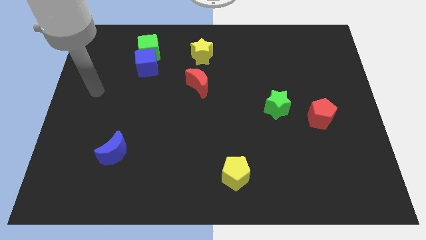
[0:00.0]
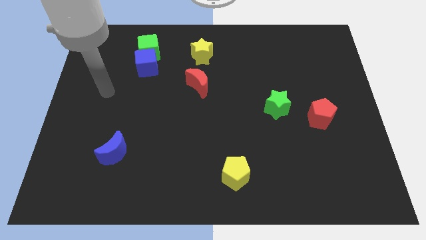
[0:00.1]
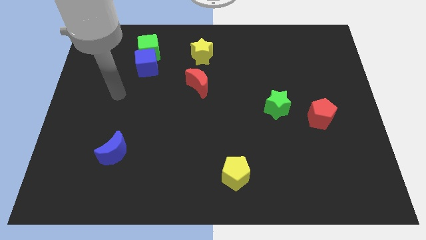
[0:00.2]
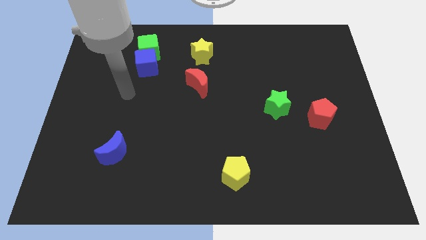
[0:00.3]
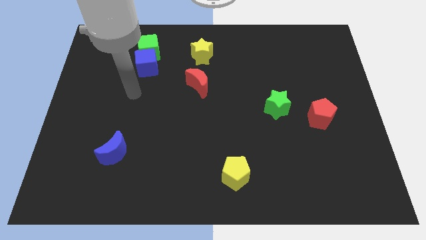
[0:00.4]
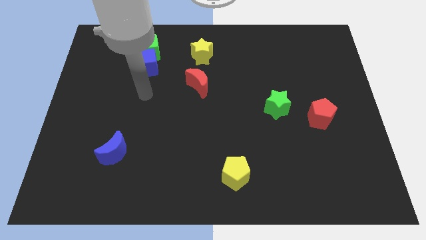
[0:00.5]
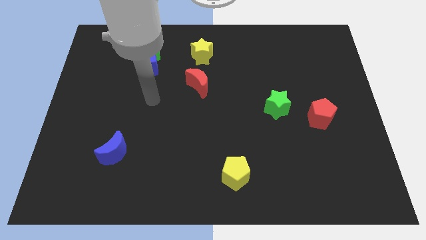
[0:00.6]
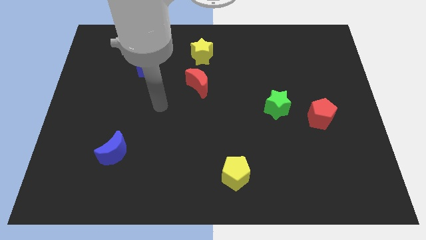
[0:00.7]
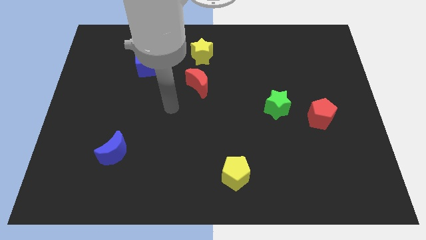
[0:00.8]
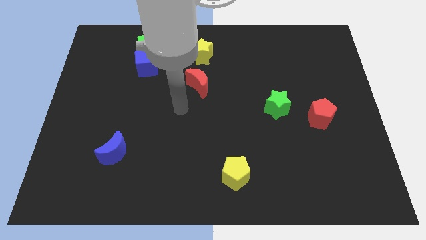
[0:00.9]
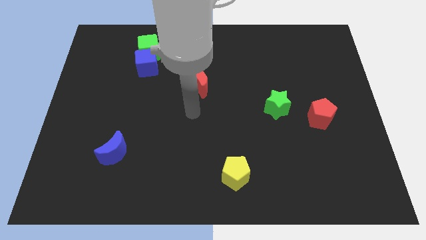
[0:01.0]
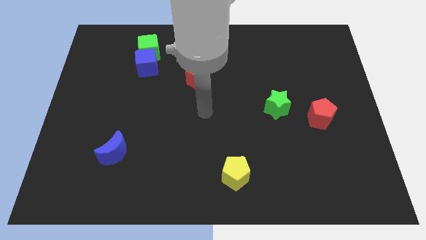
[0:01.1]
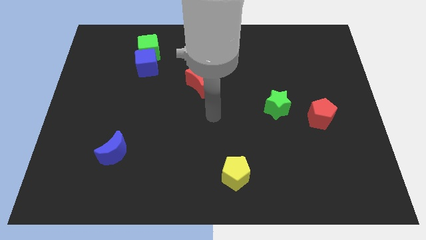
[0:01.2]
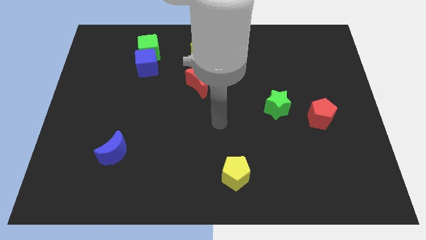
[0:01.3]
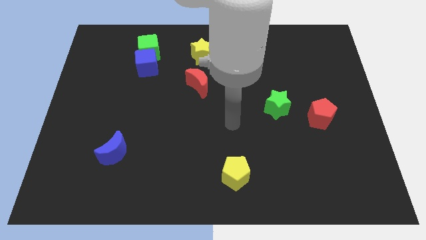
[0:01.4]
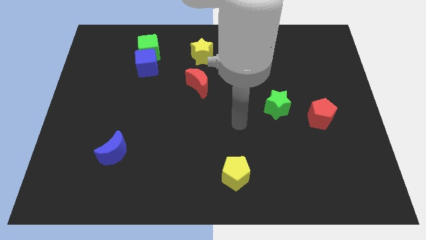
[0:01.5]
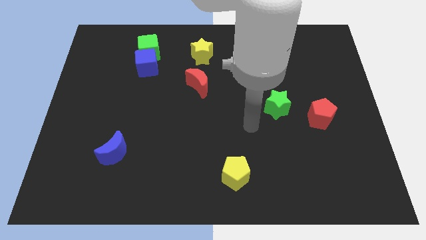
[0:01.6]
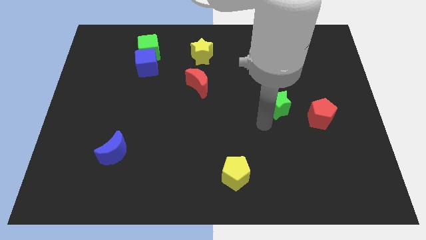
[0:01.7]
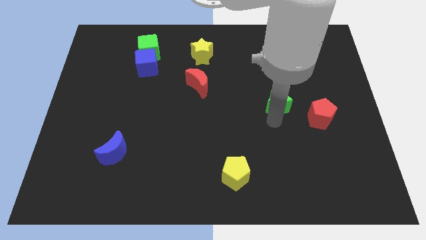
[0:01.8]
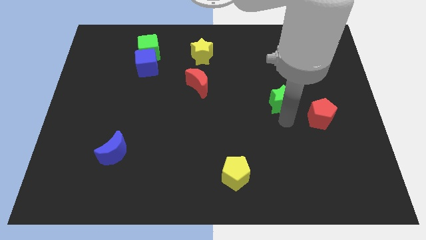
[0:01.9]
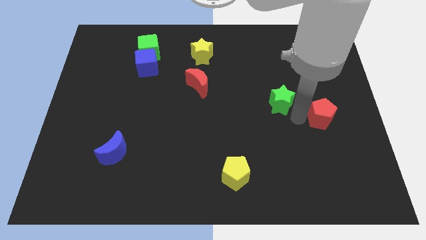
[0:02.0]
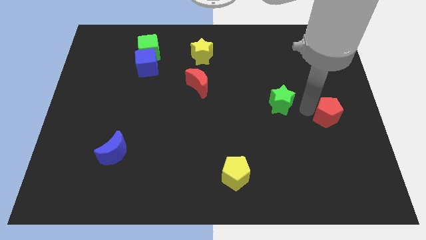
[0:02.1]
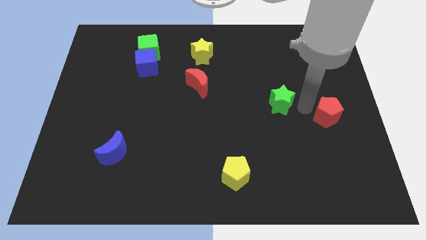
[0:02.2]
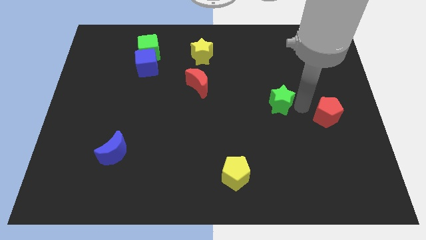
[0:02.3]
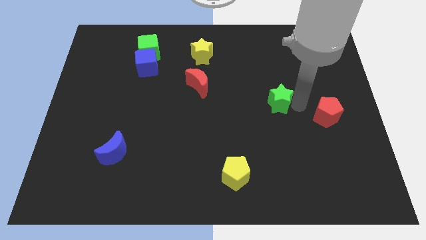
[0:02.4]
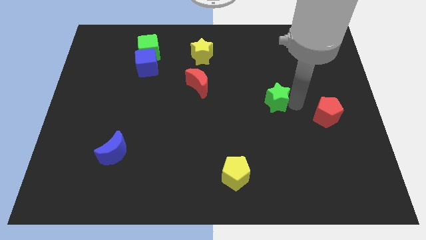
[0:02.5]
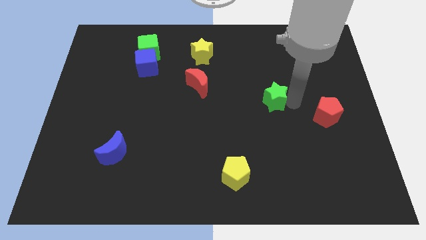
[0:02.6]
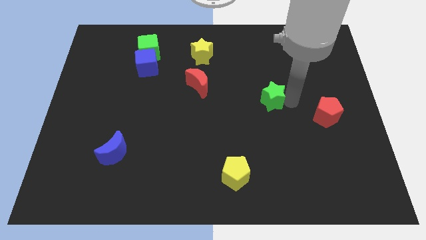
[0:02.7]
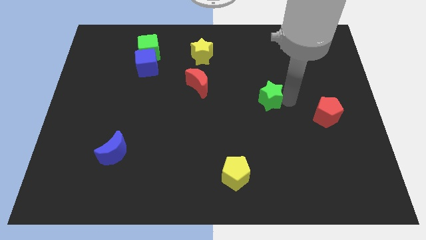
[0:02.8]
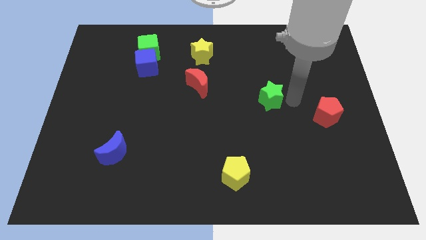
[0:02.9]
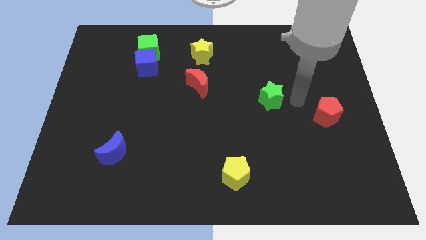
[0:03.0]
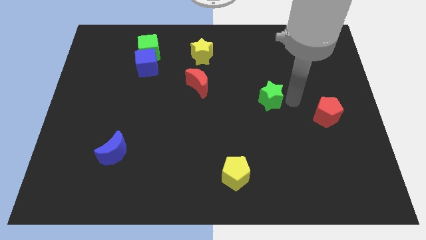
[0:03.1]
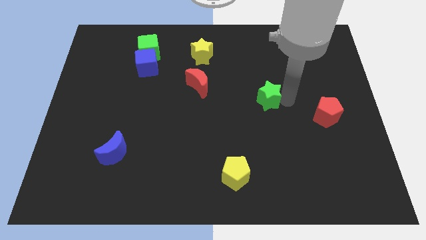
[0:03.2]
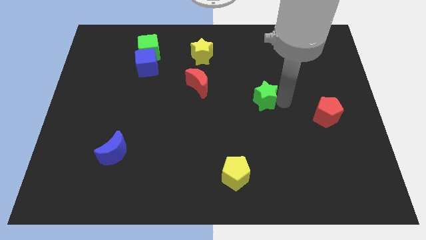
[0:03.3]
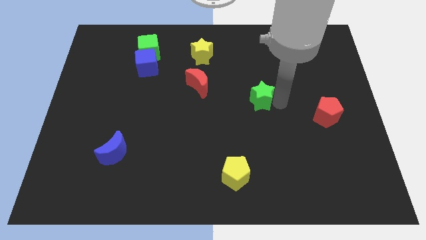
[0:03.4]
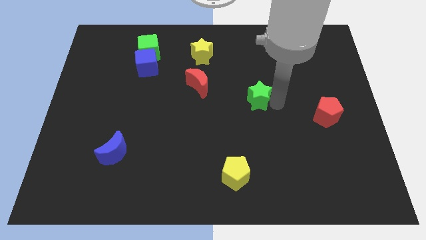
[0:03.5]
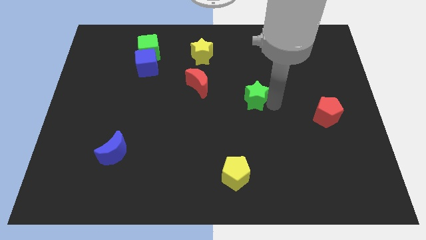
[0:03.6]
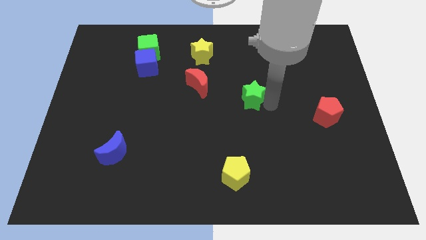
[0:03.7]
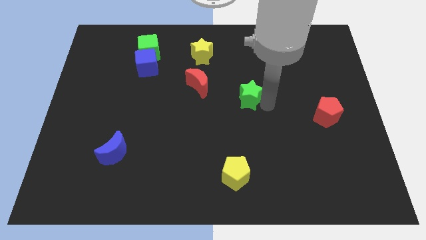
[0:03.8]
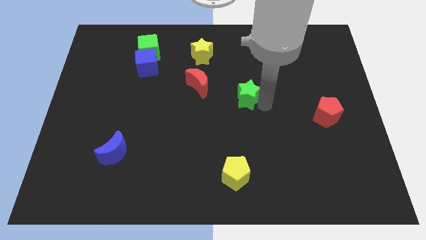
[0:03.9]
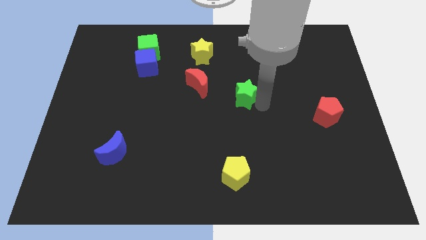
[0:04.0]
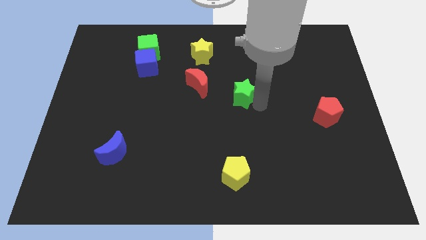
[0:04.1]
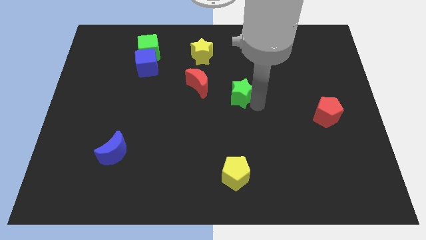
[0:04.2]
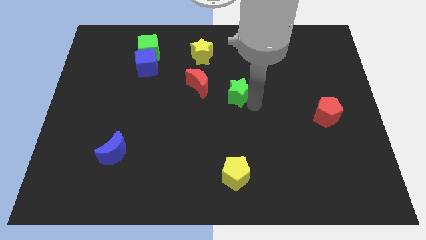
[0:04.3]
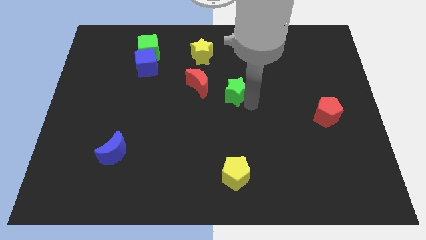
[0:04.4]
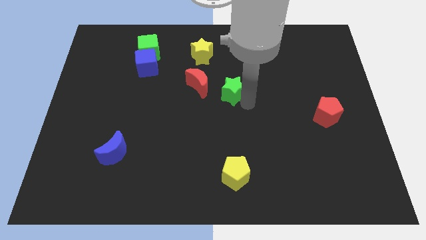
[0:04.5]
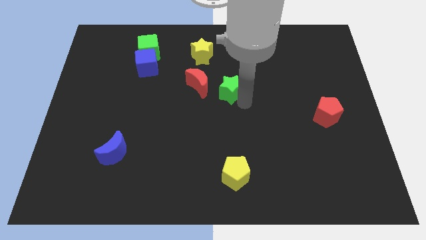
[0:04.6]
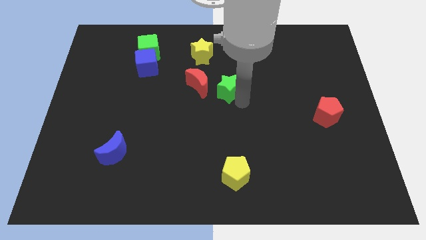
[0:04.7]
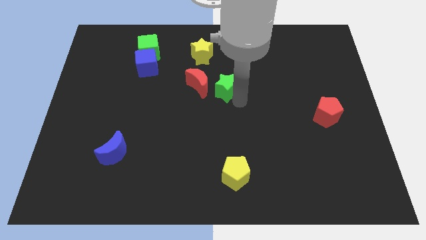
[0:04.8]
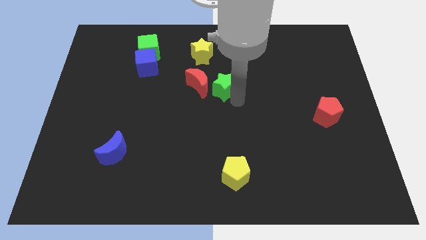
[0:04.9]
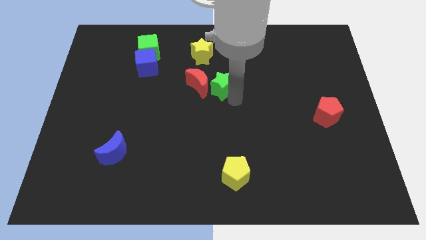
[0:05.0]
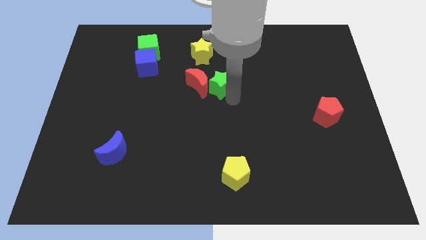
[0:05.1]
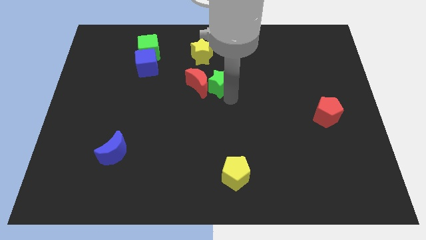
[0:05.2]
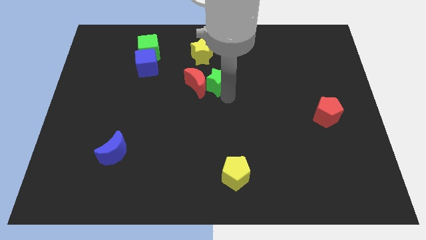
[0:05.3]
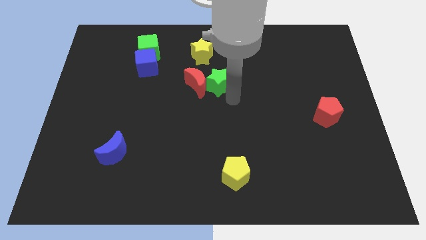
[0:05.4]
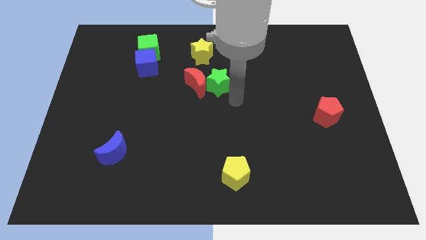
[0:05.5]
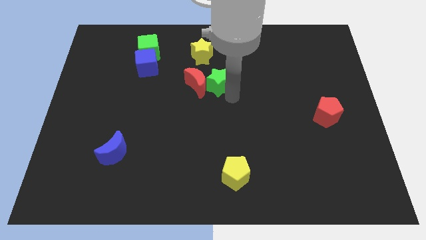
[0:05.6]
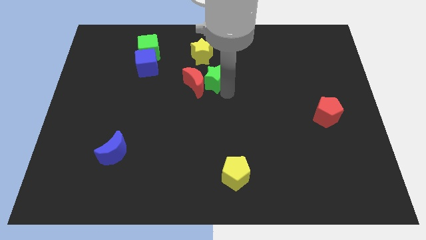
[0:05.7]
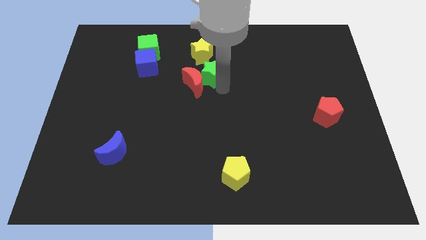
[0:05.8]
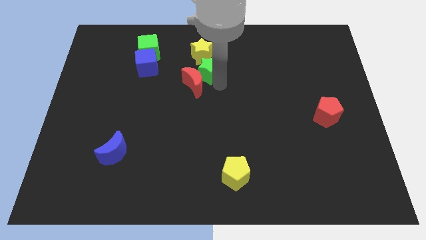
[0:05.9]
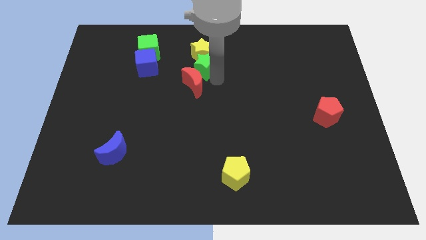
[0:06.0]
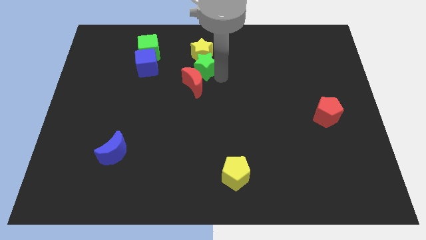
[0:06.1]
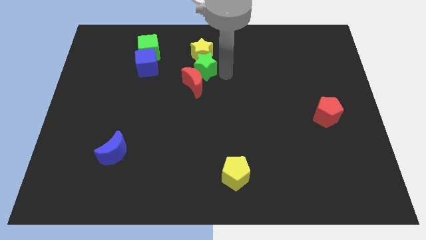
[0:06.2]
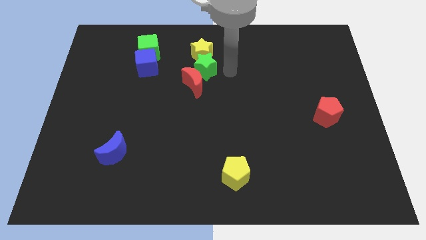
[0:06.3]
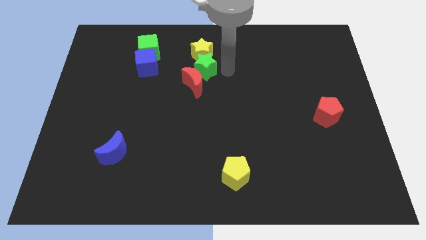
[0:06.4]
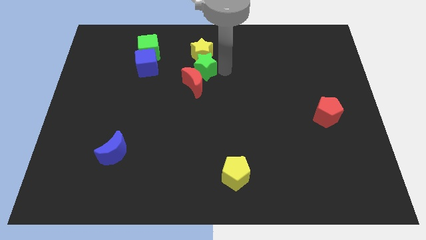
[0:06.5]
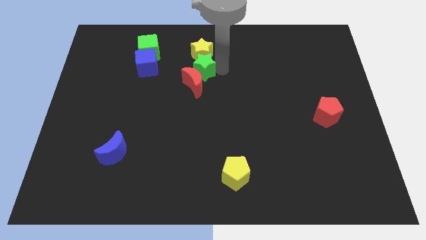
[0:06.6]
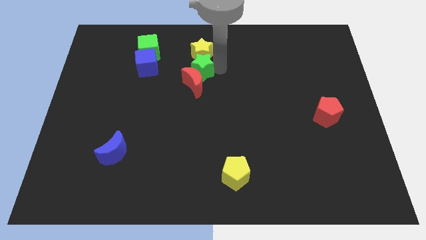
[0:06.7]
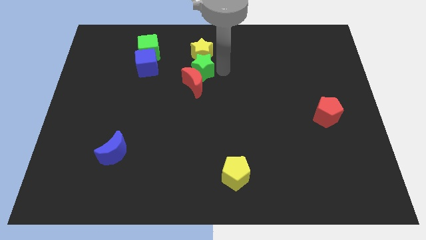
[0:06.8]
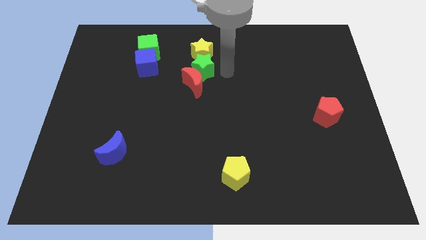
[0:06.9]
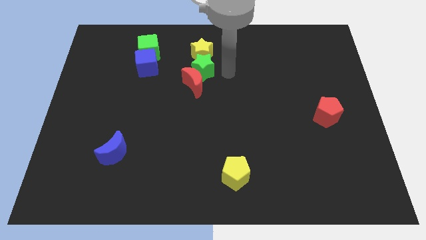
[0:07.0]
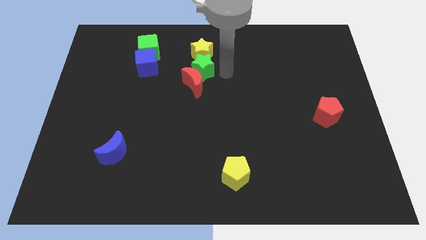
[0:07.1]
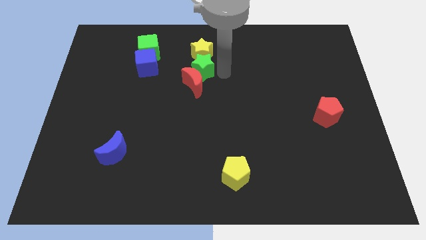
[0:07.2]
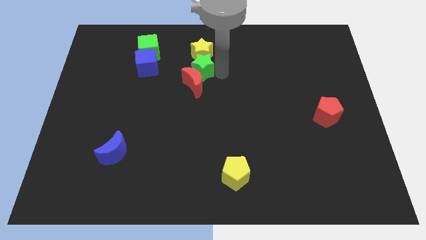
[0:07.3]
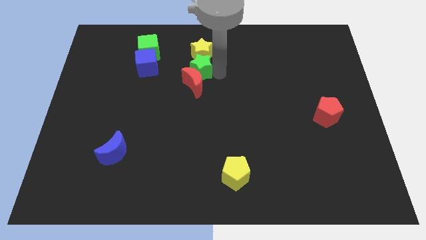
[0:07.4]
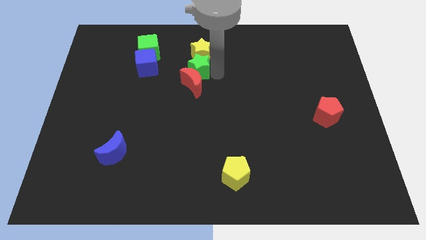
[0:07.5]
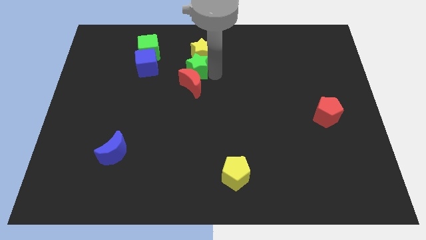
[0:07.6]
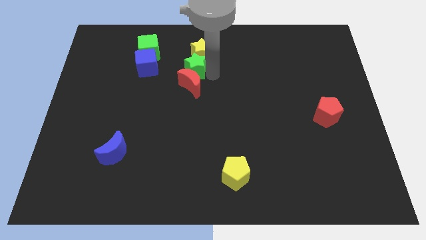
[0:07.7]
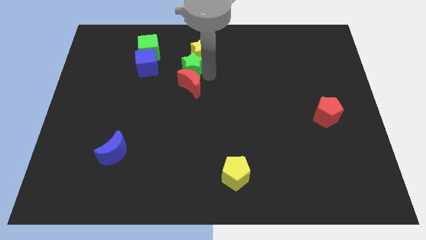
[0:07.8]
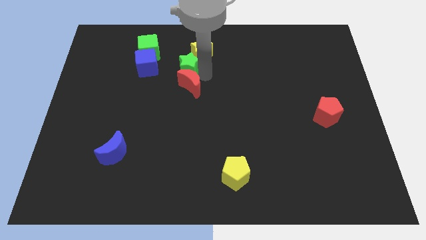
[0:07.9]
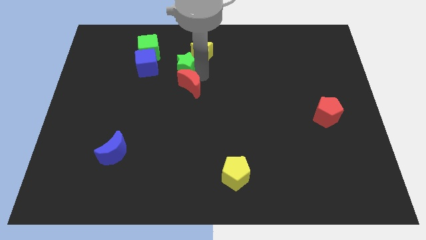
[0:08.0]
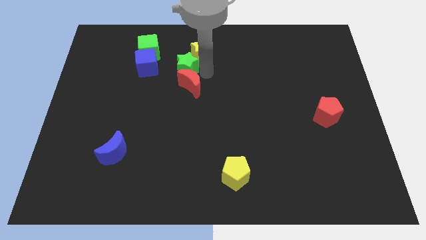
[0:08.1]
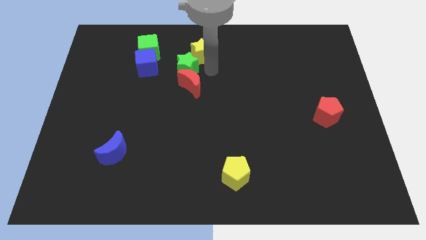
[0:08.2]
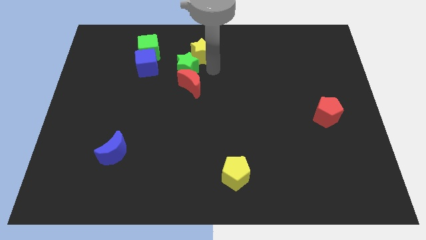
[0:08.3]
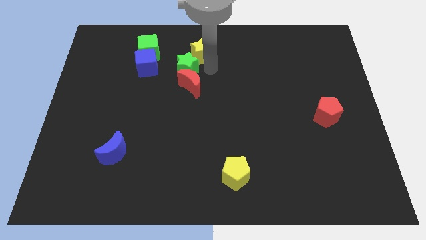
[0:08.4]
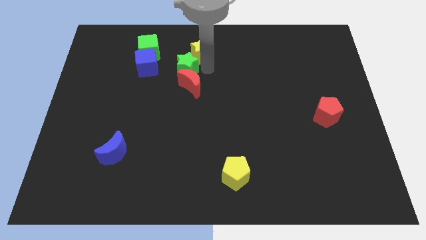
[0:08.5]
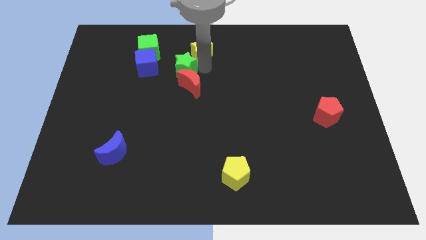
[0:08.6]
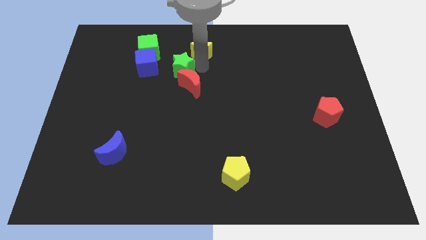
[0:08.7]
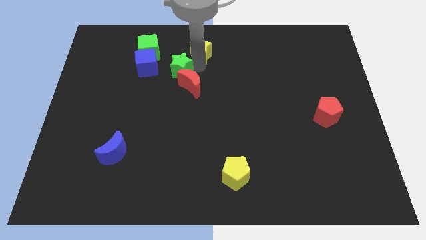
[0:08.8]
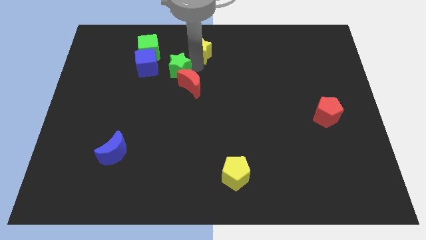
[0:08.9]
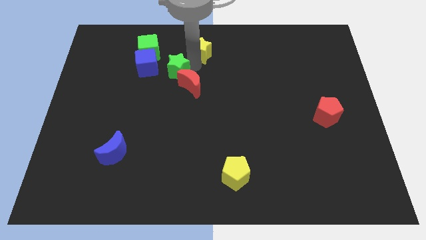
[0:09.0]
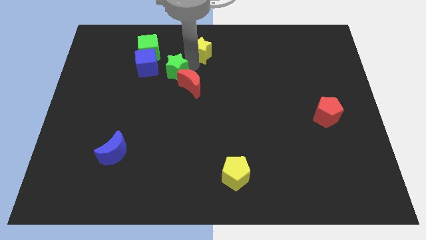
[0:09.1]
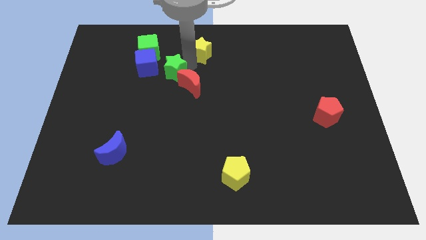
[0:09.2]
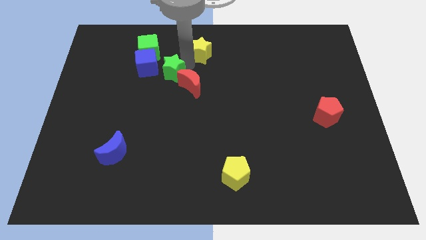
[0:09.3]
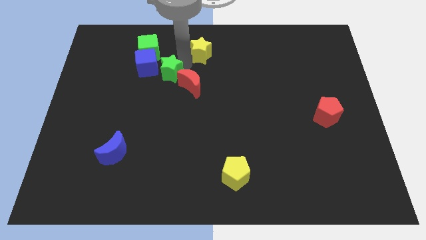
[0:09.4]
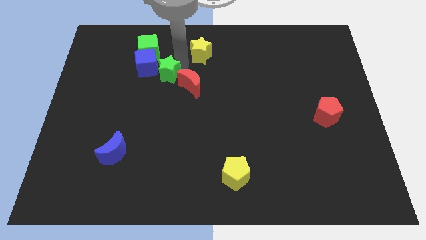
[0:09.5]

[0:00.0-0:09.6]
slide the green star next to the blue cube
